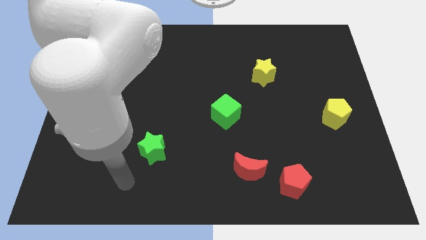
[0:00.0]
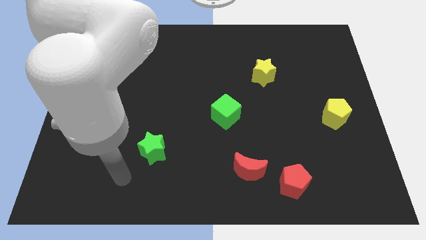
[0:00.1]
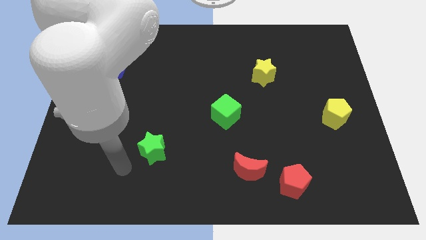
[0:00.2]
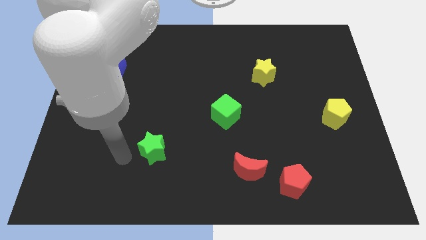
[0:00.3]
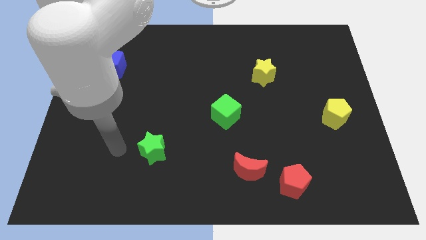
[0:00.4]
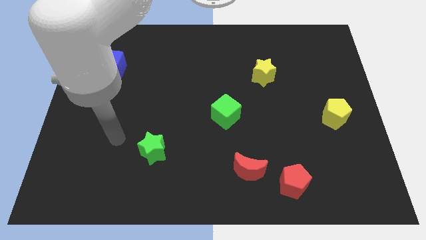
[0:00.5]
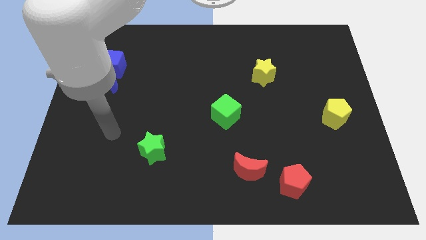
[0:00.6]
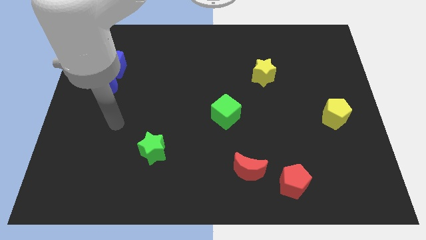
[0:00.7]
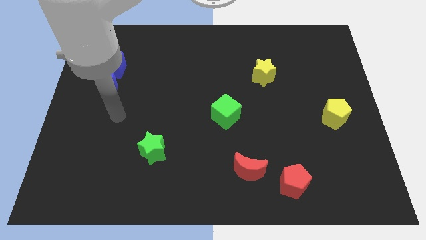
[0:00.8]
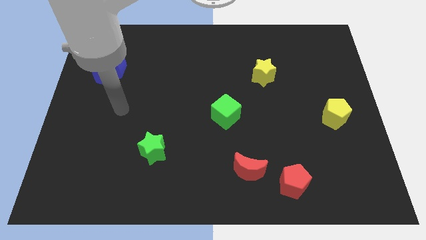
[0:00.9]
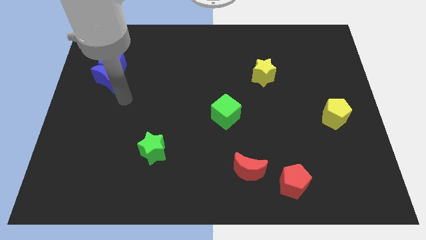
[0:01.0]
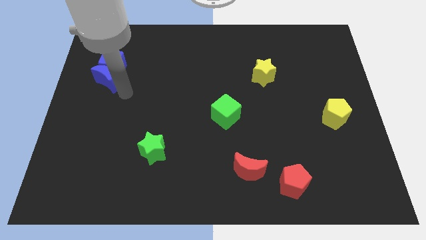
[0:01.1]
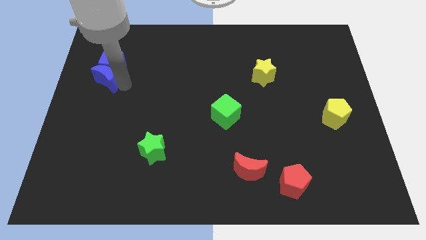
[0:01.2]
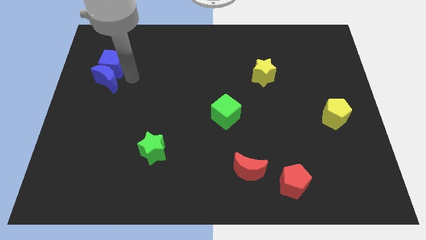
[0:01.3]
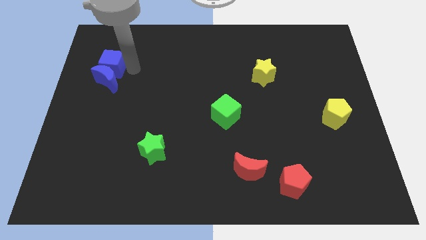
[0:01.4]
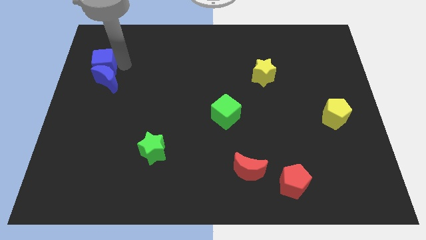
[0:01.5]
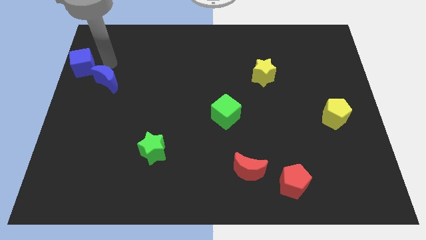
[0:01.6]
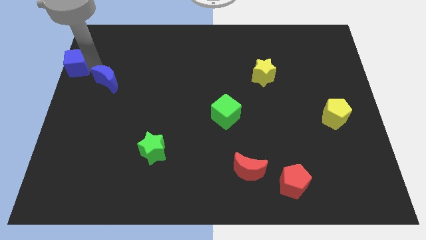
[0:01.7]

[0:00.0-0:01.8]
separate the blue moon from the blue cube

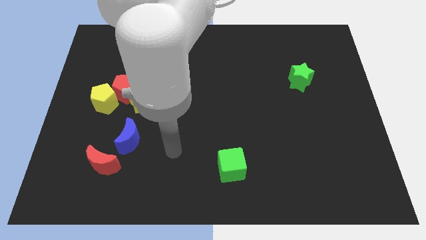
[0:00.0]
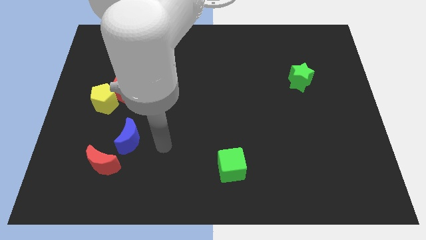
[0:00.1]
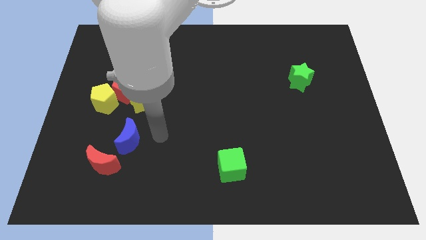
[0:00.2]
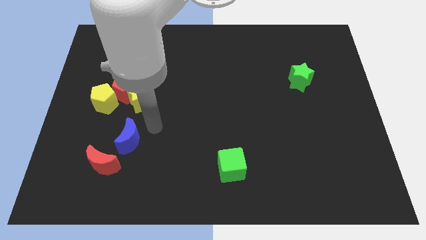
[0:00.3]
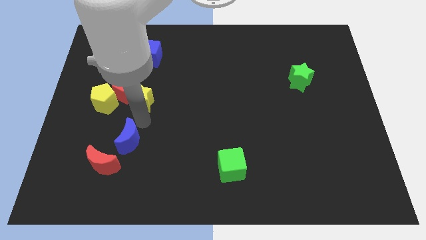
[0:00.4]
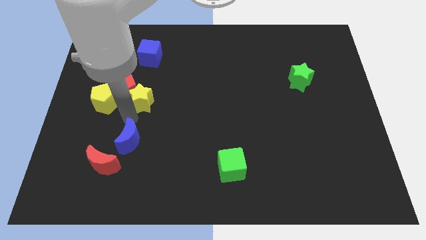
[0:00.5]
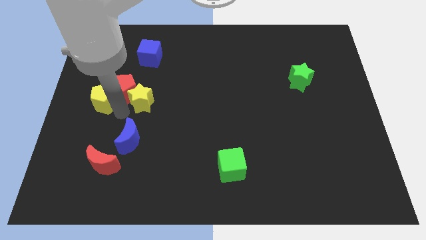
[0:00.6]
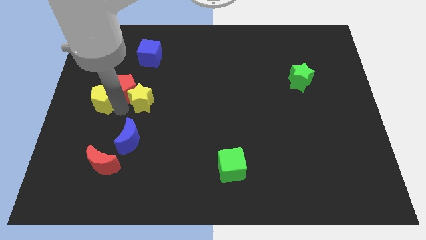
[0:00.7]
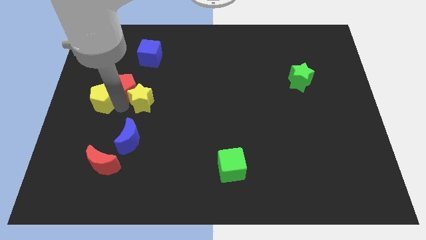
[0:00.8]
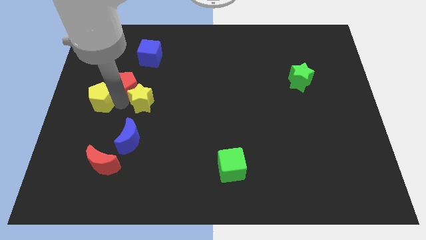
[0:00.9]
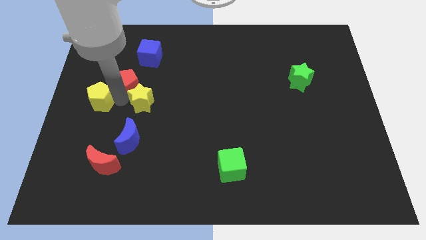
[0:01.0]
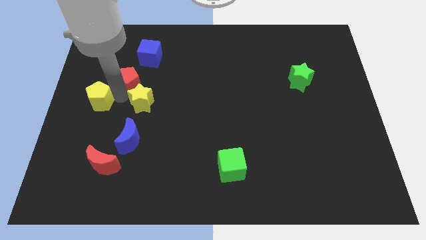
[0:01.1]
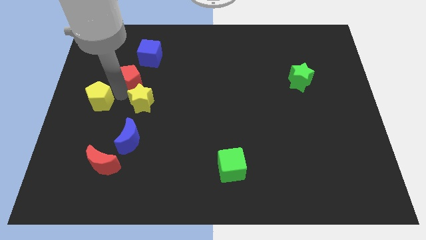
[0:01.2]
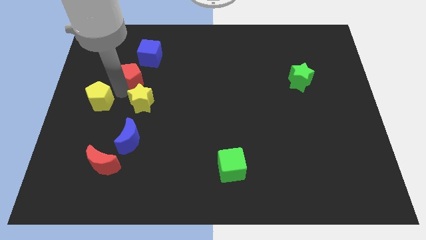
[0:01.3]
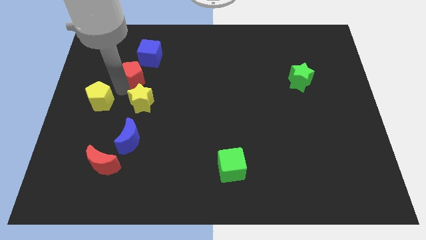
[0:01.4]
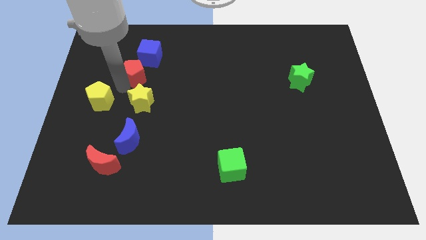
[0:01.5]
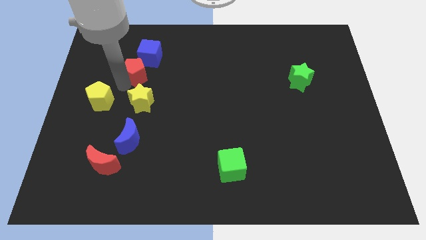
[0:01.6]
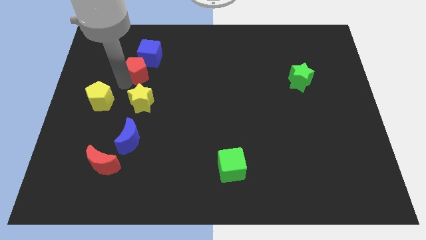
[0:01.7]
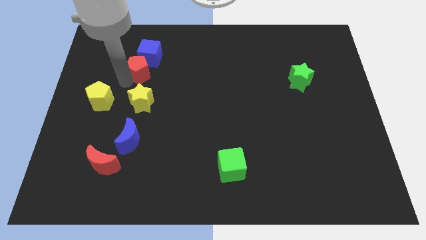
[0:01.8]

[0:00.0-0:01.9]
pull the red pentagon apart from the yellow star and yellow pentagon

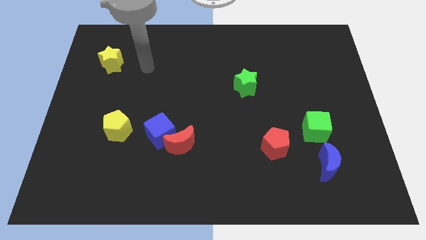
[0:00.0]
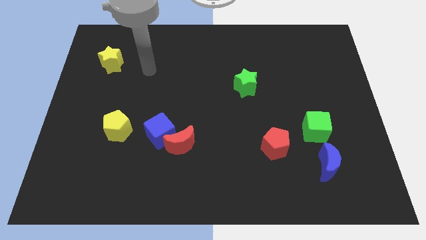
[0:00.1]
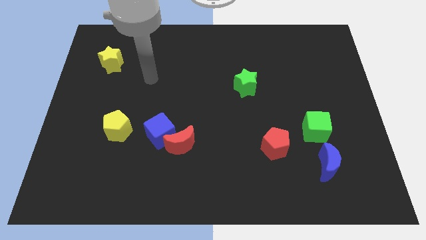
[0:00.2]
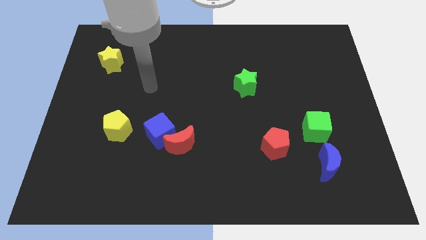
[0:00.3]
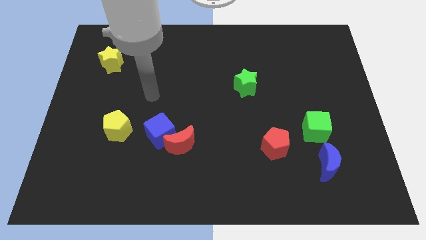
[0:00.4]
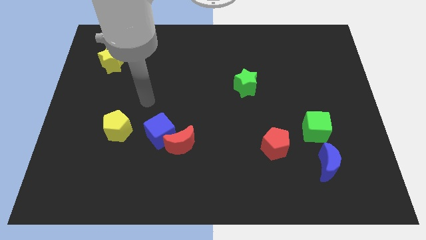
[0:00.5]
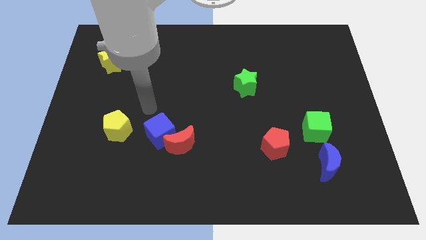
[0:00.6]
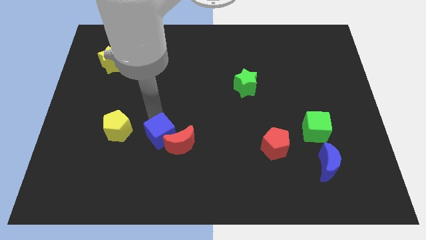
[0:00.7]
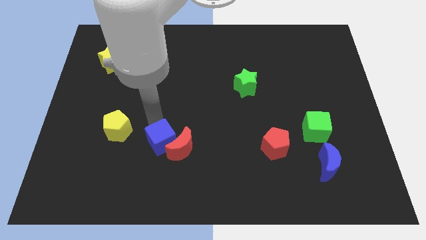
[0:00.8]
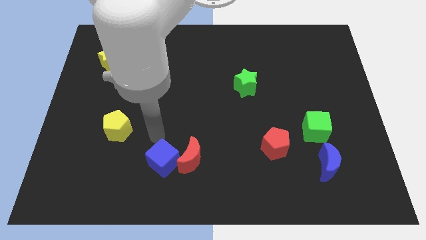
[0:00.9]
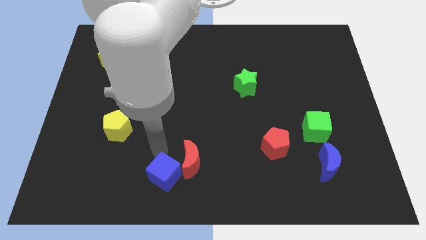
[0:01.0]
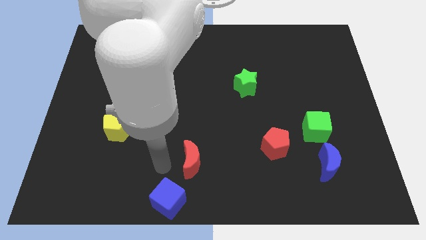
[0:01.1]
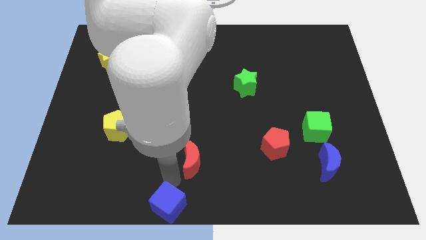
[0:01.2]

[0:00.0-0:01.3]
move the red moon away from the blue cube

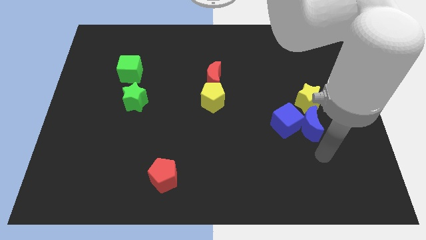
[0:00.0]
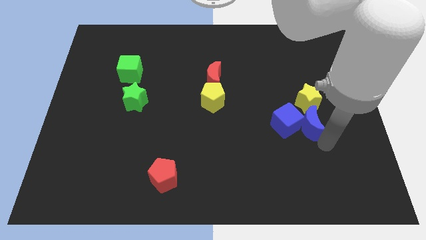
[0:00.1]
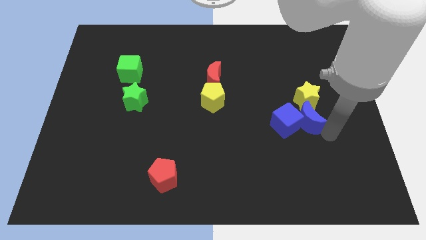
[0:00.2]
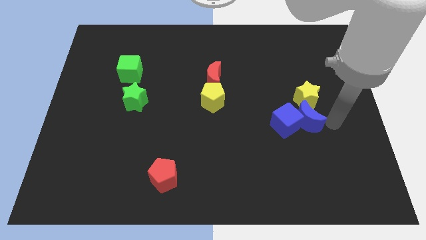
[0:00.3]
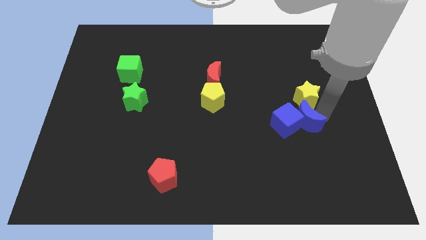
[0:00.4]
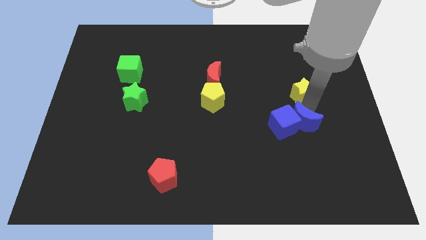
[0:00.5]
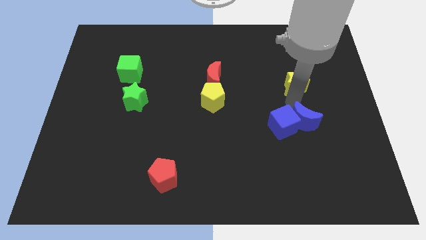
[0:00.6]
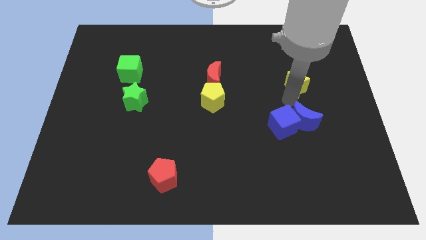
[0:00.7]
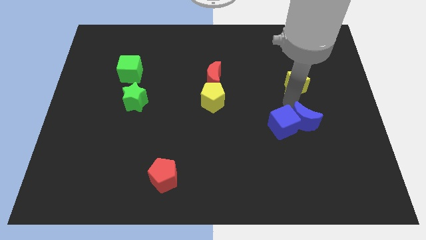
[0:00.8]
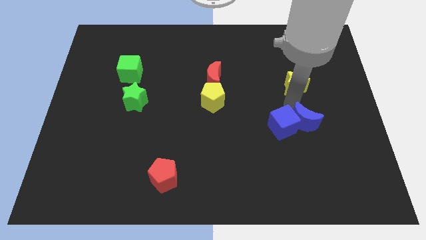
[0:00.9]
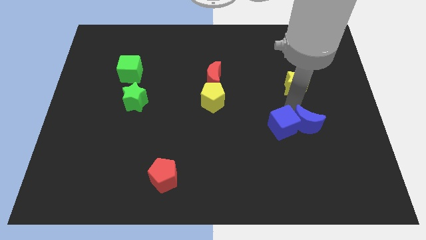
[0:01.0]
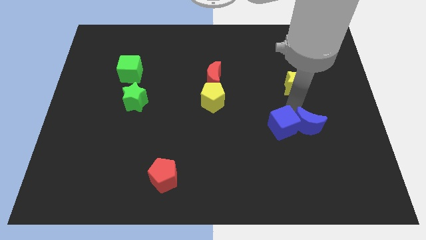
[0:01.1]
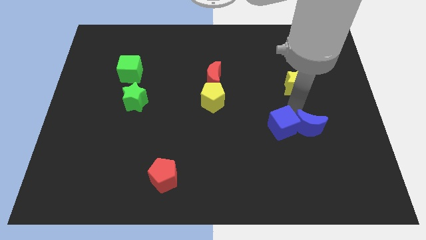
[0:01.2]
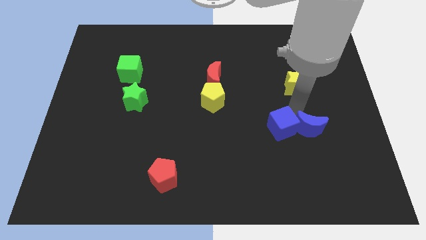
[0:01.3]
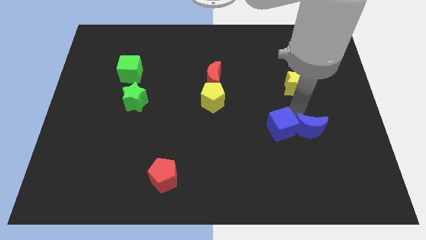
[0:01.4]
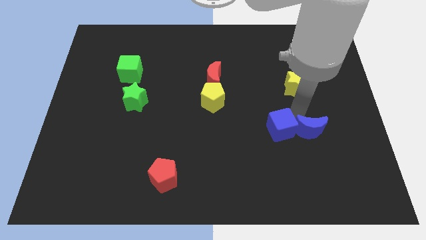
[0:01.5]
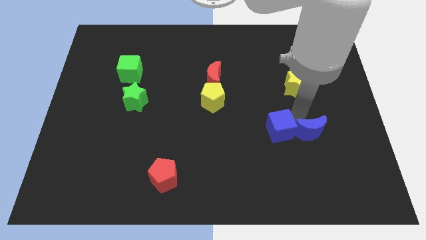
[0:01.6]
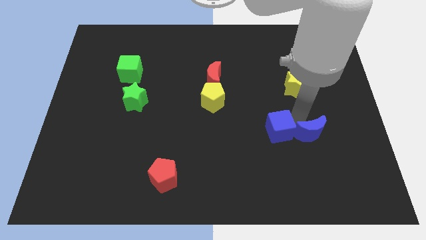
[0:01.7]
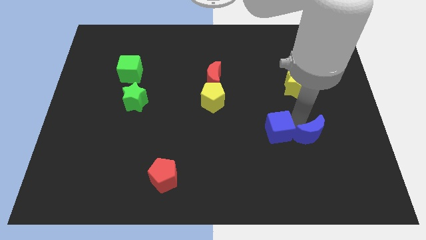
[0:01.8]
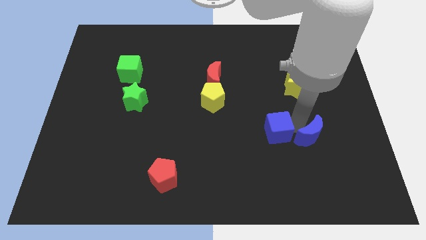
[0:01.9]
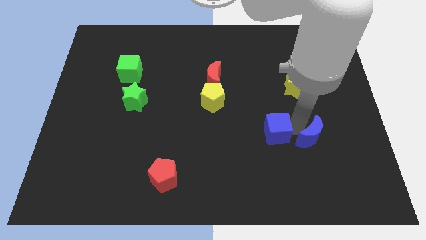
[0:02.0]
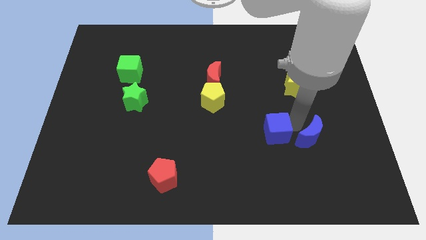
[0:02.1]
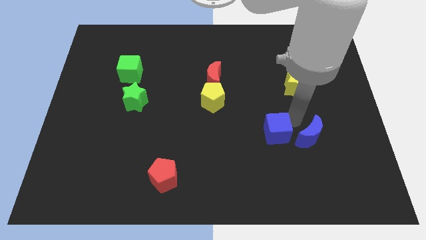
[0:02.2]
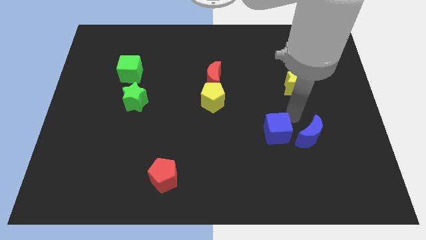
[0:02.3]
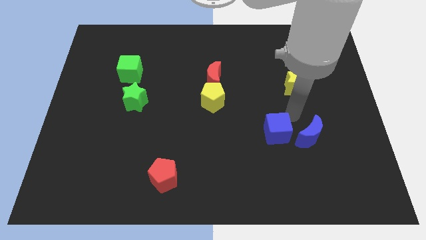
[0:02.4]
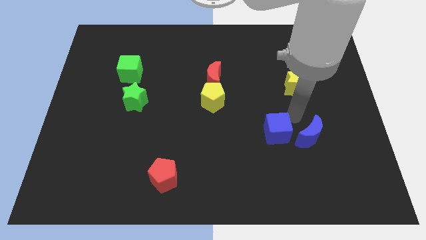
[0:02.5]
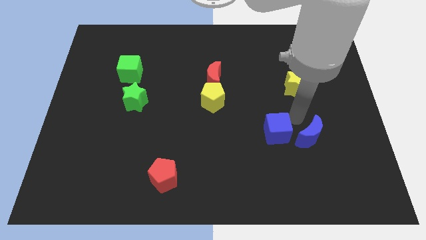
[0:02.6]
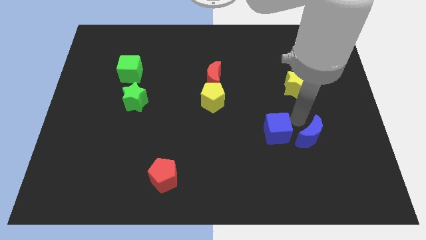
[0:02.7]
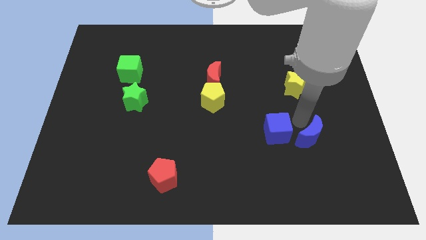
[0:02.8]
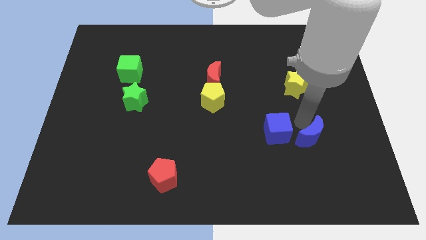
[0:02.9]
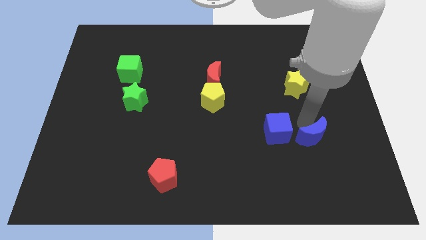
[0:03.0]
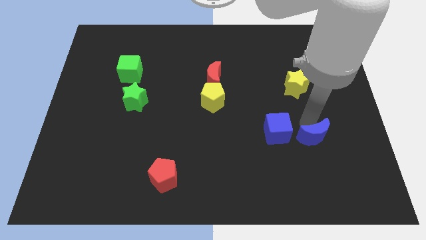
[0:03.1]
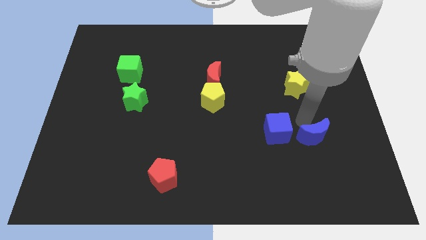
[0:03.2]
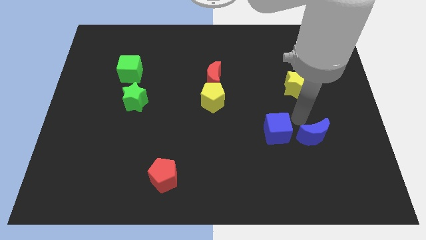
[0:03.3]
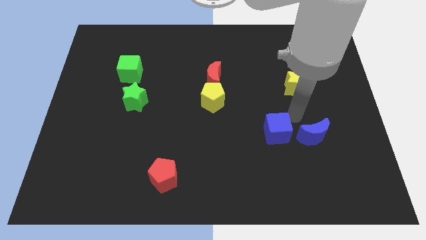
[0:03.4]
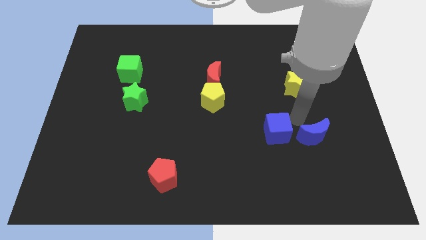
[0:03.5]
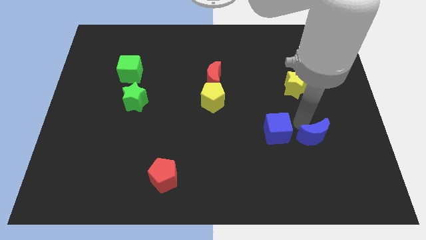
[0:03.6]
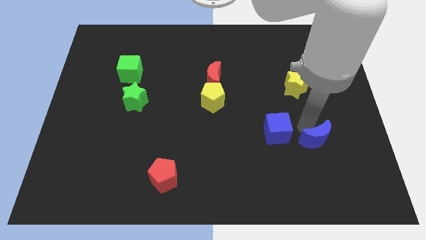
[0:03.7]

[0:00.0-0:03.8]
pull the blue moon apart from the blue cube and yellow star

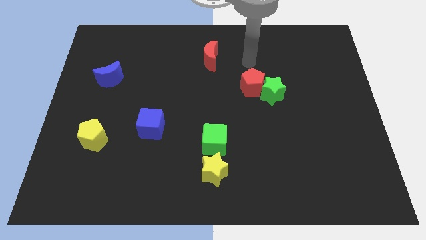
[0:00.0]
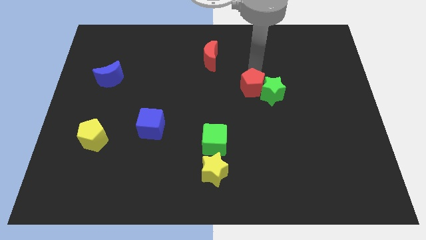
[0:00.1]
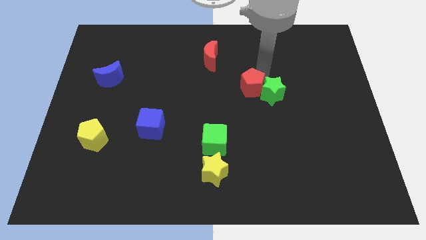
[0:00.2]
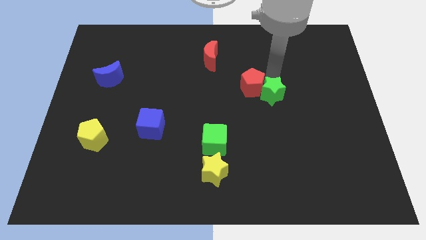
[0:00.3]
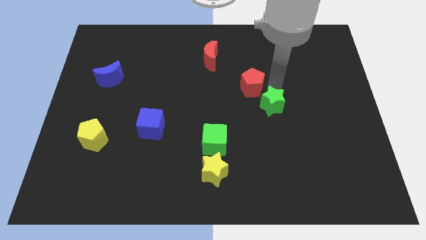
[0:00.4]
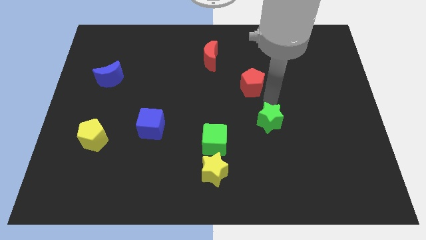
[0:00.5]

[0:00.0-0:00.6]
separate the red pentagon from the green star
